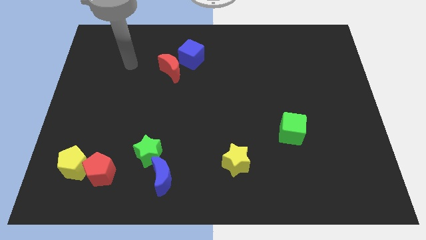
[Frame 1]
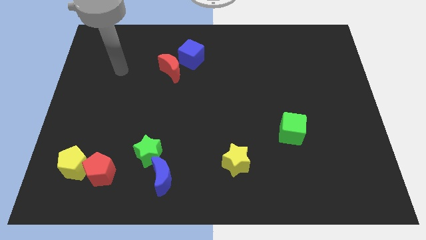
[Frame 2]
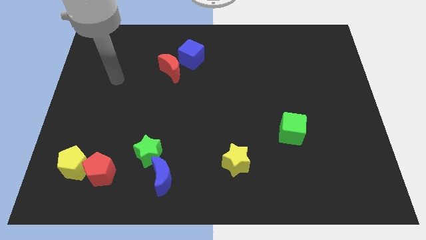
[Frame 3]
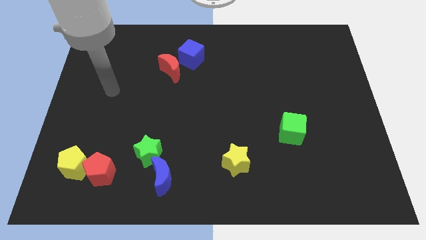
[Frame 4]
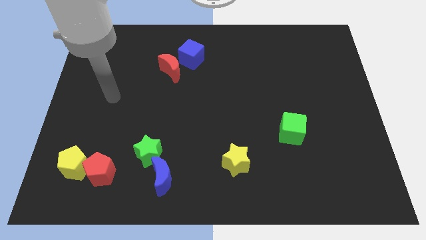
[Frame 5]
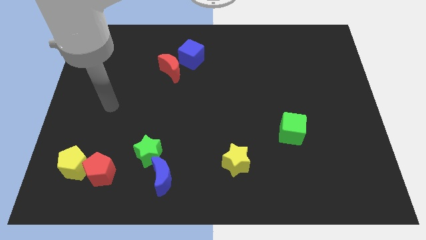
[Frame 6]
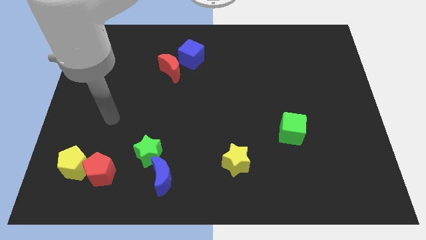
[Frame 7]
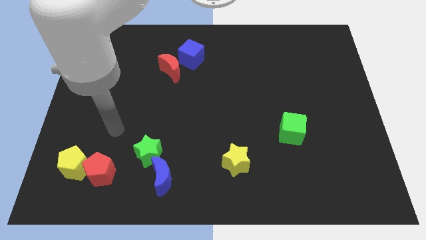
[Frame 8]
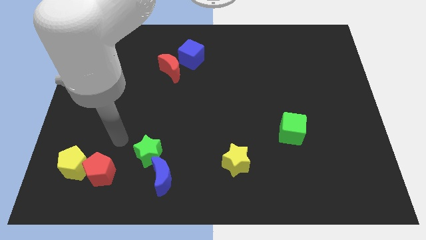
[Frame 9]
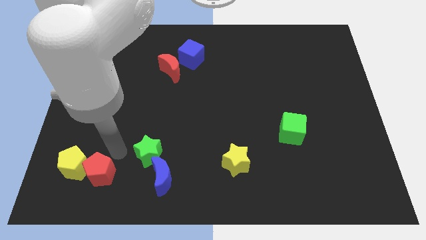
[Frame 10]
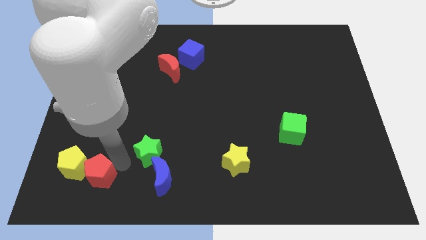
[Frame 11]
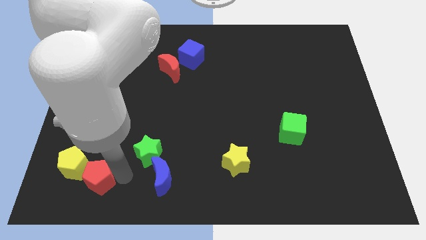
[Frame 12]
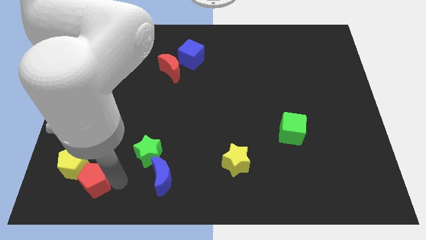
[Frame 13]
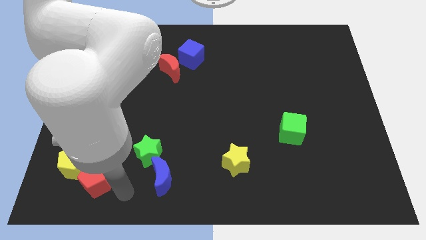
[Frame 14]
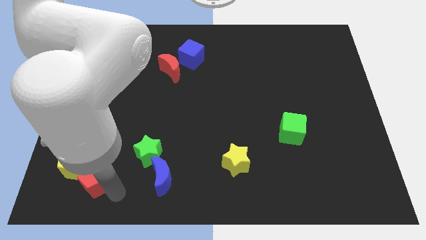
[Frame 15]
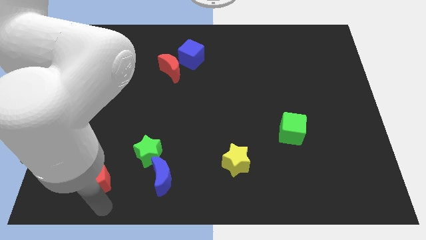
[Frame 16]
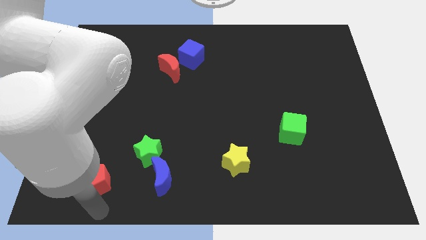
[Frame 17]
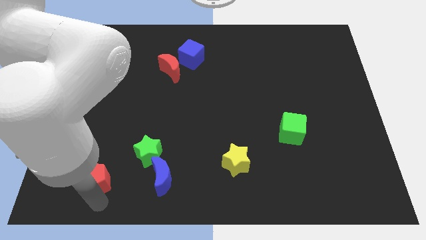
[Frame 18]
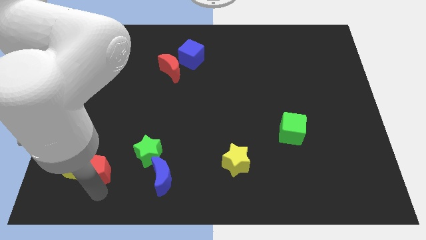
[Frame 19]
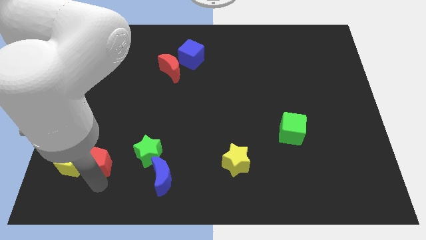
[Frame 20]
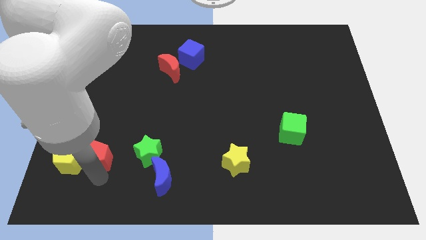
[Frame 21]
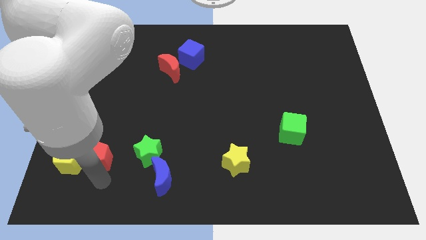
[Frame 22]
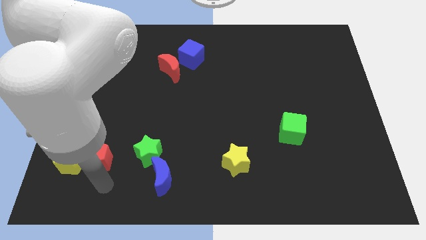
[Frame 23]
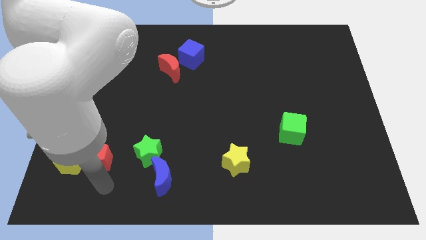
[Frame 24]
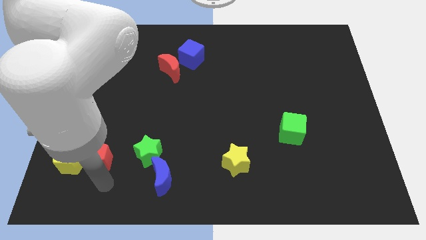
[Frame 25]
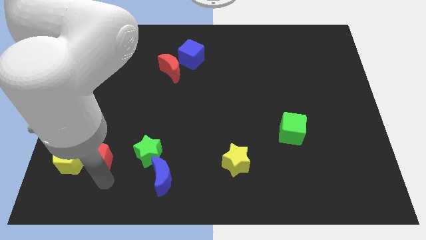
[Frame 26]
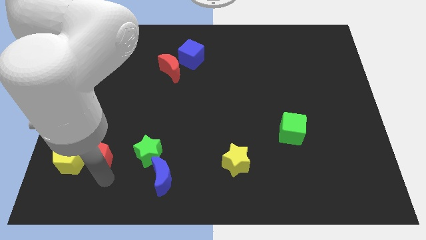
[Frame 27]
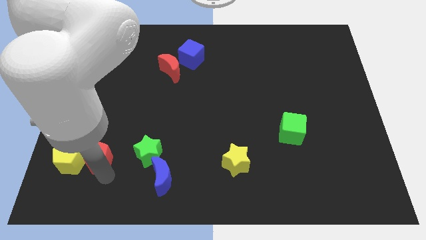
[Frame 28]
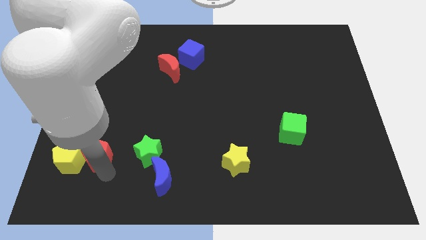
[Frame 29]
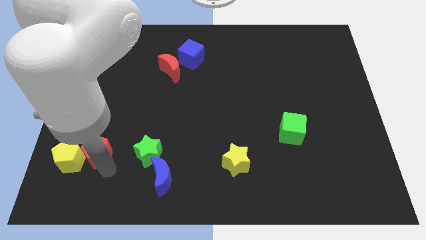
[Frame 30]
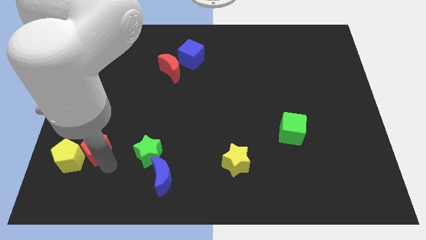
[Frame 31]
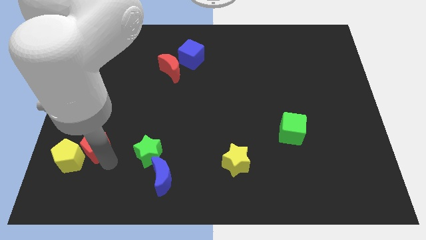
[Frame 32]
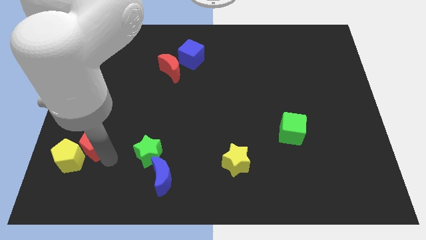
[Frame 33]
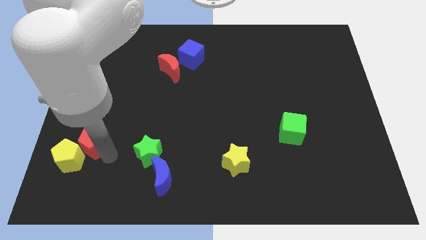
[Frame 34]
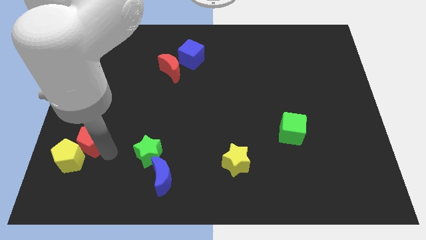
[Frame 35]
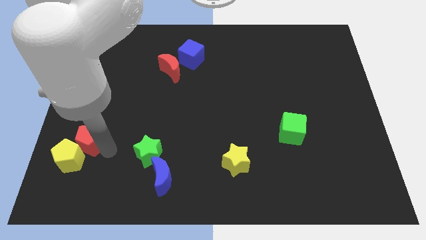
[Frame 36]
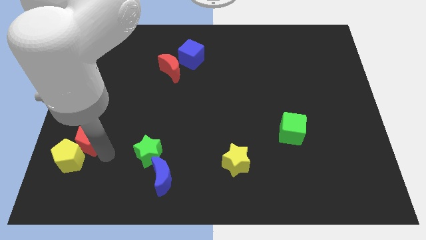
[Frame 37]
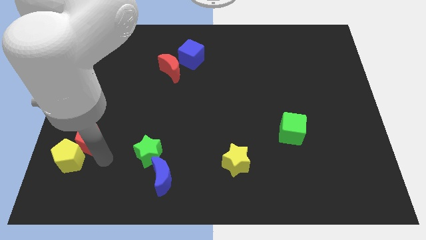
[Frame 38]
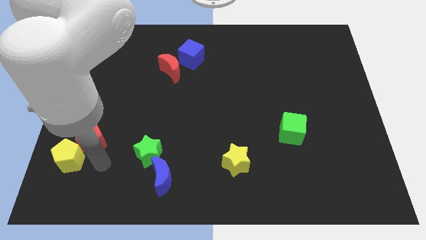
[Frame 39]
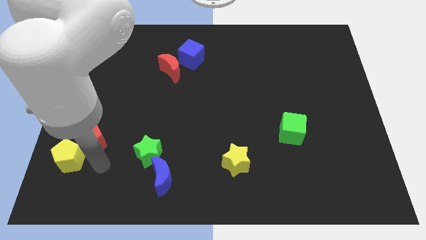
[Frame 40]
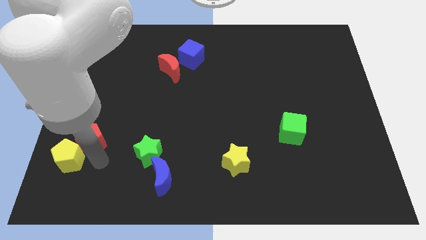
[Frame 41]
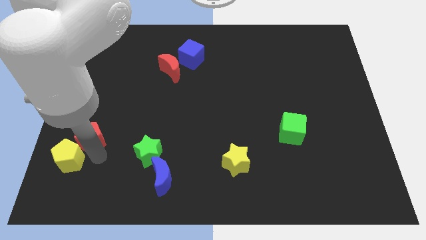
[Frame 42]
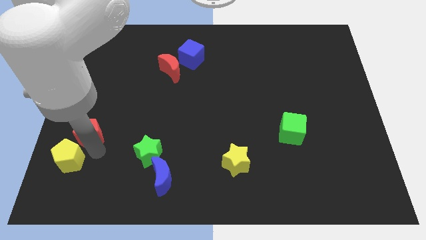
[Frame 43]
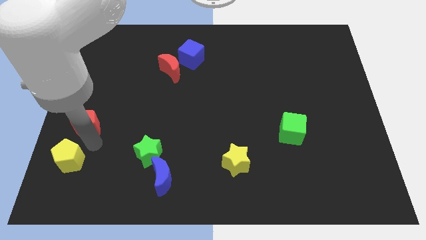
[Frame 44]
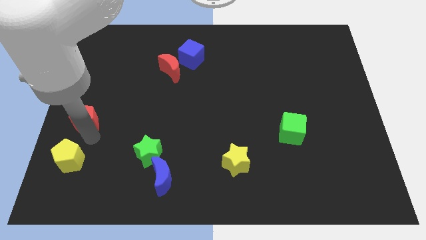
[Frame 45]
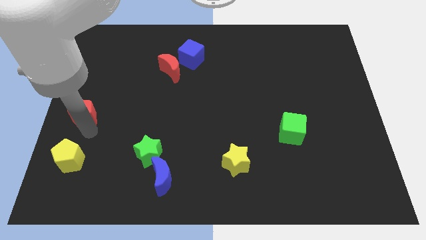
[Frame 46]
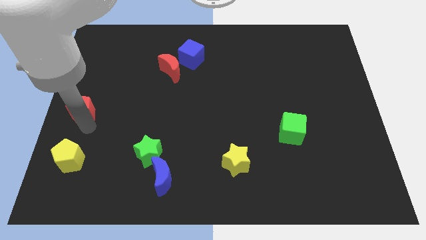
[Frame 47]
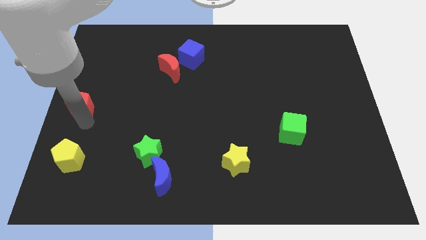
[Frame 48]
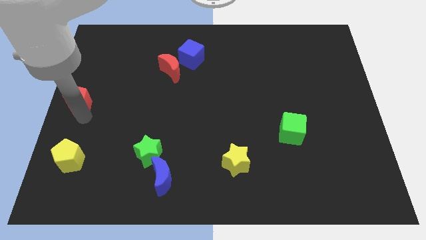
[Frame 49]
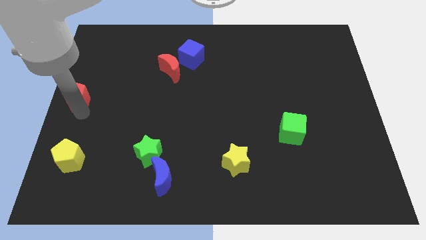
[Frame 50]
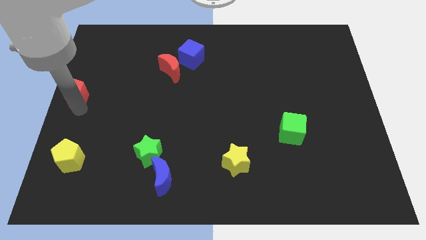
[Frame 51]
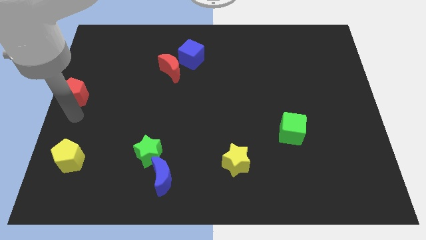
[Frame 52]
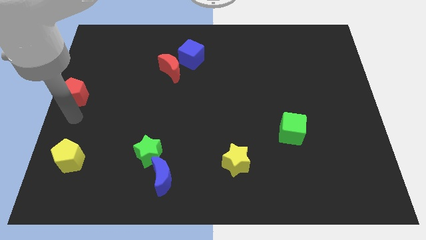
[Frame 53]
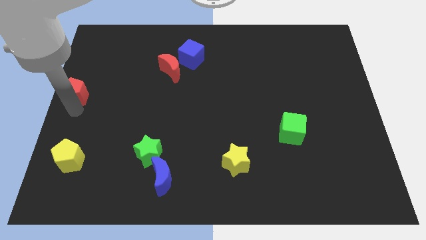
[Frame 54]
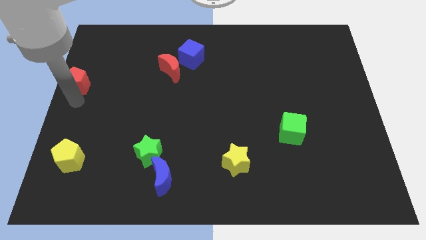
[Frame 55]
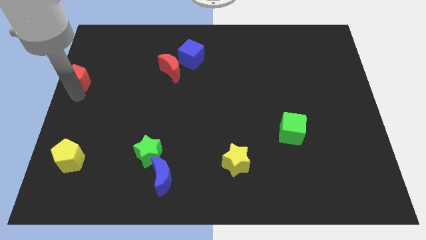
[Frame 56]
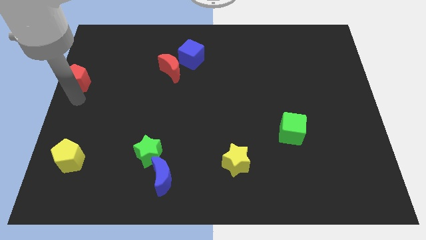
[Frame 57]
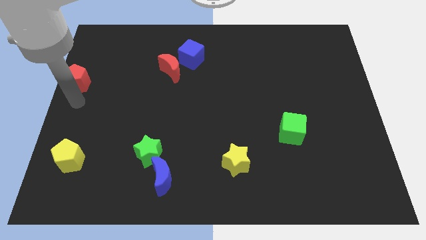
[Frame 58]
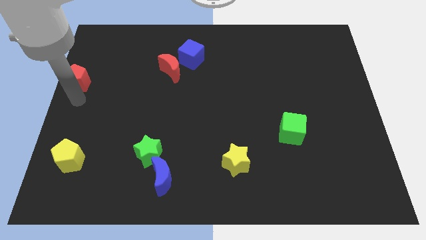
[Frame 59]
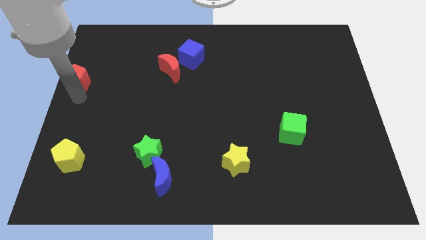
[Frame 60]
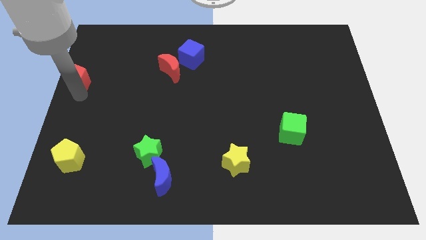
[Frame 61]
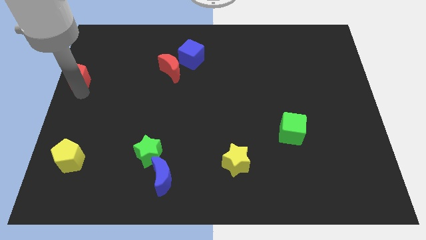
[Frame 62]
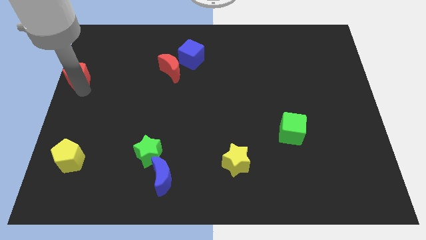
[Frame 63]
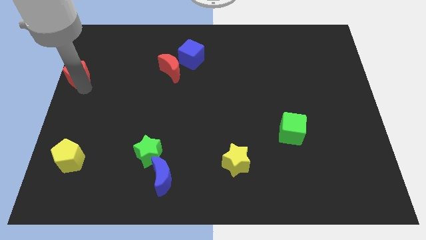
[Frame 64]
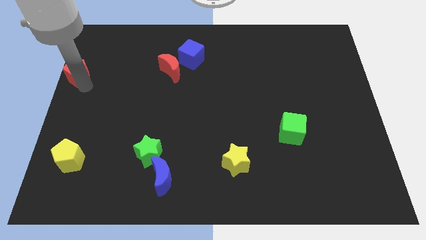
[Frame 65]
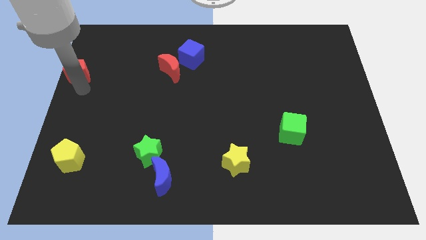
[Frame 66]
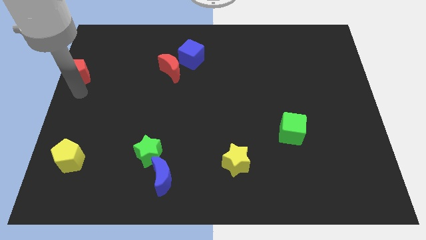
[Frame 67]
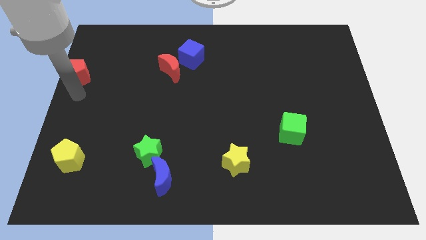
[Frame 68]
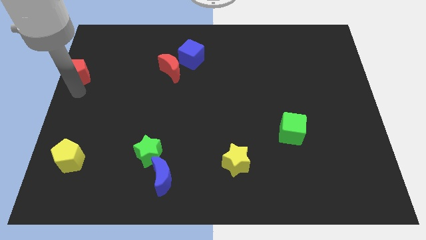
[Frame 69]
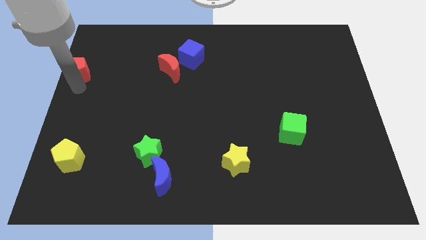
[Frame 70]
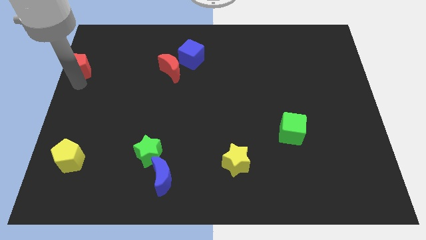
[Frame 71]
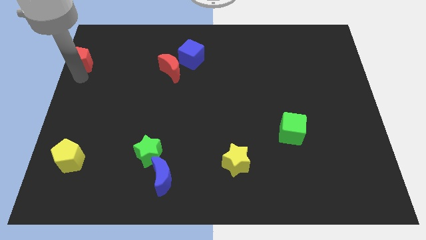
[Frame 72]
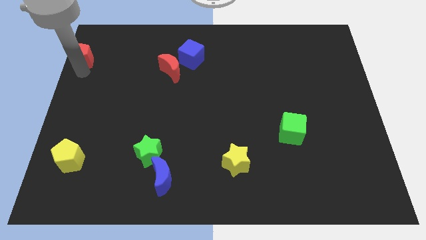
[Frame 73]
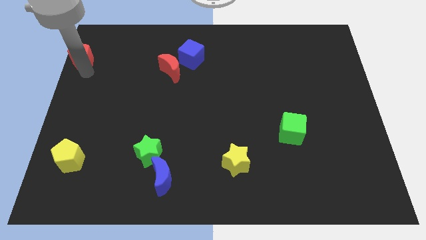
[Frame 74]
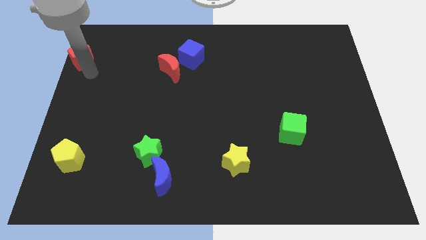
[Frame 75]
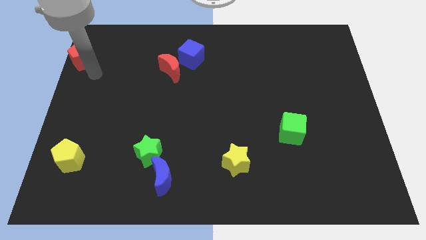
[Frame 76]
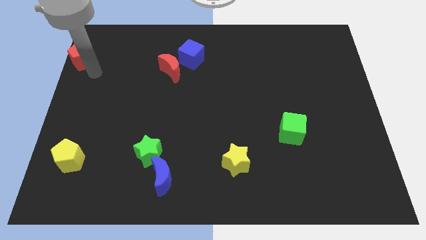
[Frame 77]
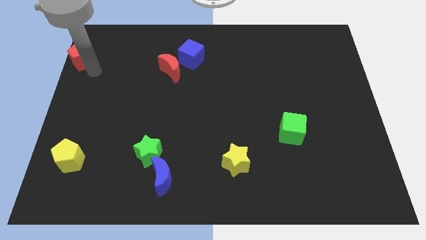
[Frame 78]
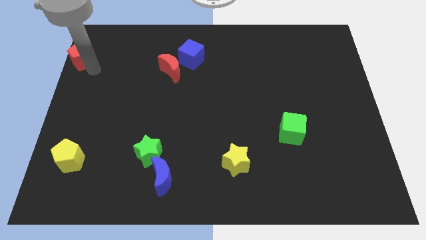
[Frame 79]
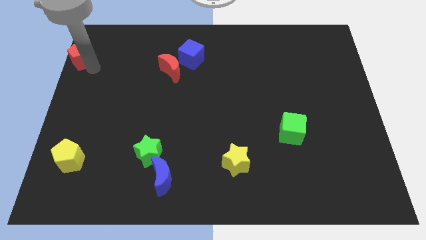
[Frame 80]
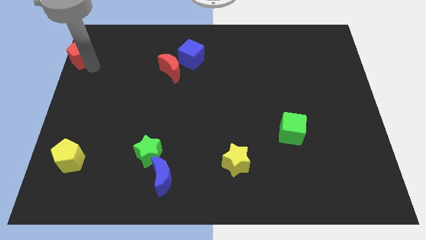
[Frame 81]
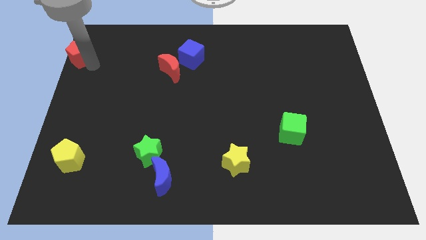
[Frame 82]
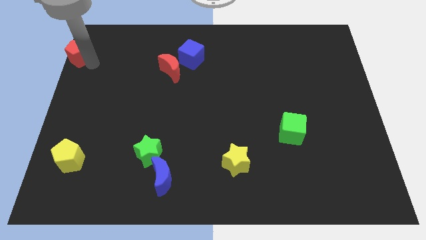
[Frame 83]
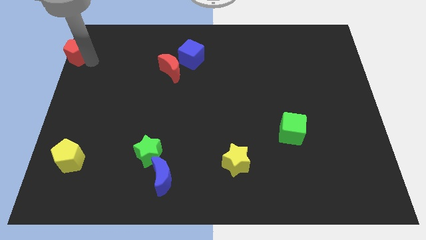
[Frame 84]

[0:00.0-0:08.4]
move the red pentagon to the top left of the board
